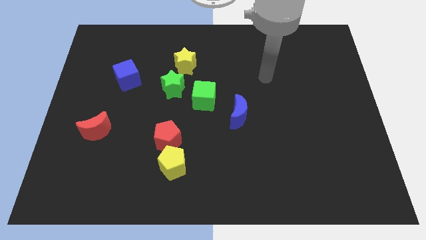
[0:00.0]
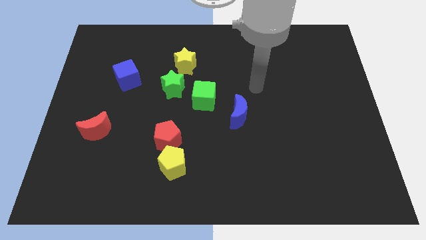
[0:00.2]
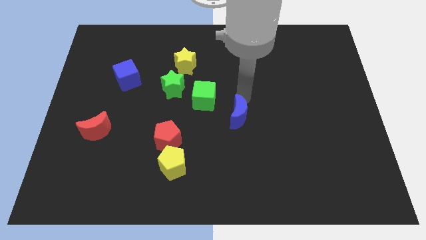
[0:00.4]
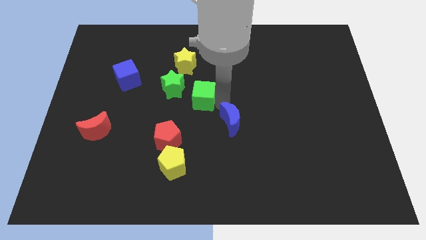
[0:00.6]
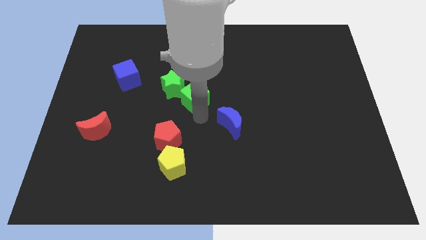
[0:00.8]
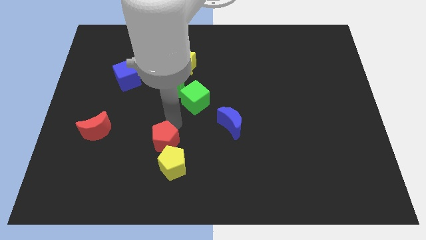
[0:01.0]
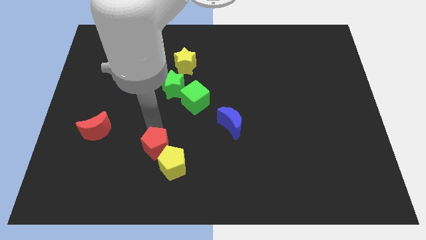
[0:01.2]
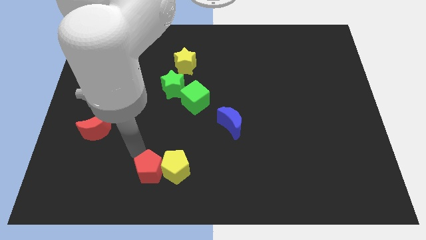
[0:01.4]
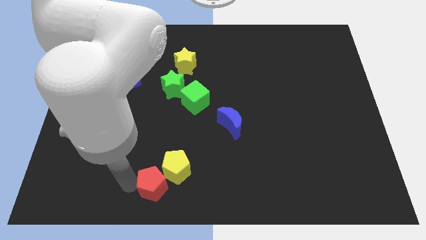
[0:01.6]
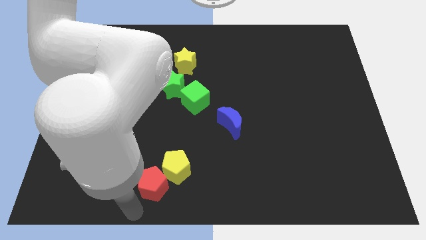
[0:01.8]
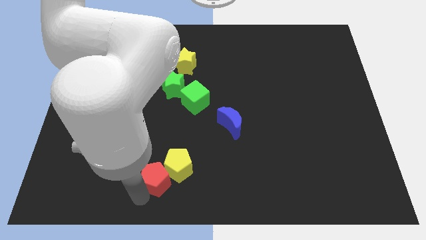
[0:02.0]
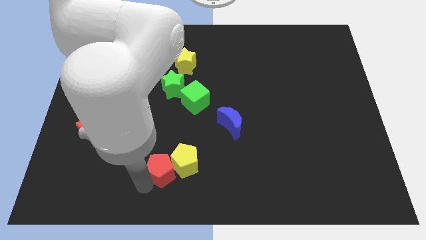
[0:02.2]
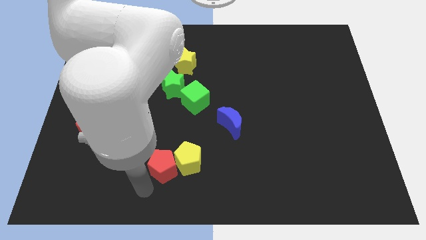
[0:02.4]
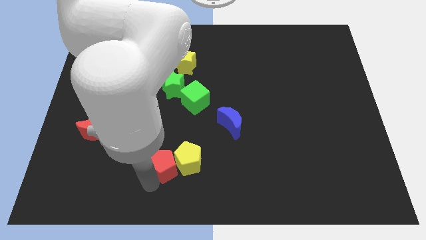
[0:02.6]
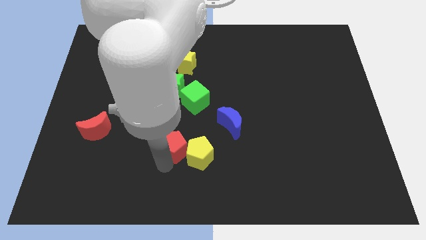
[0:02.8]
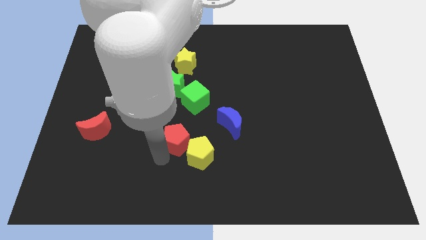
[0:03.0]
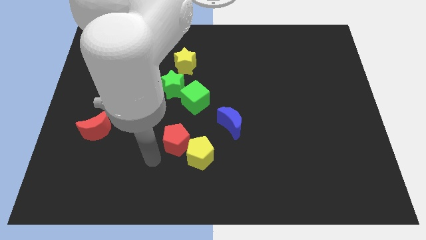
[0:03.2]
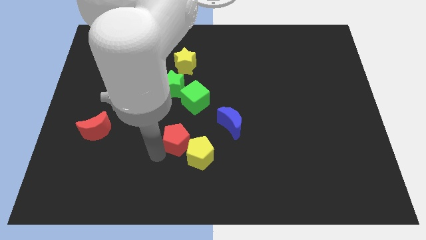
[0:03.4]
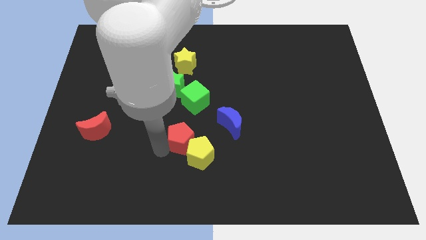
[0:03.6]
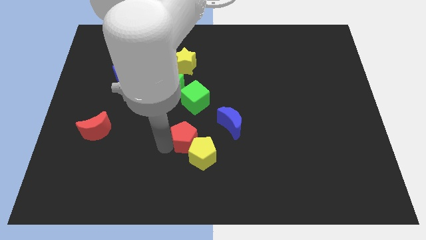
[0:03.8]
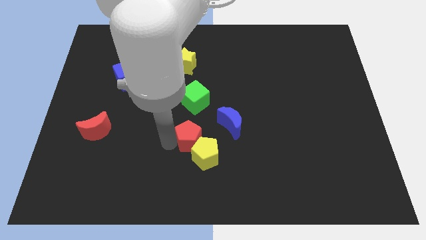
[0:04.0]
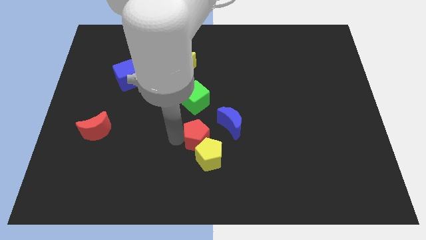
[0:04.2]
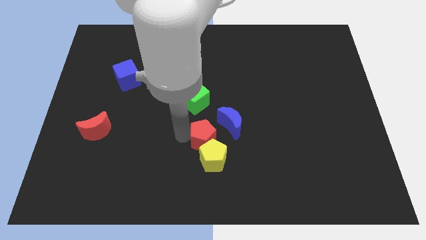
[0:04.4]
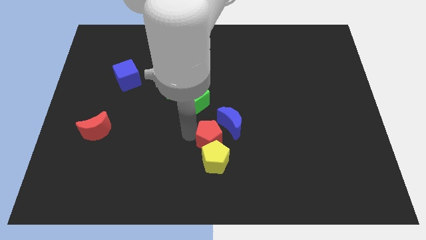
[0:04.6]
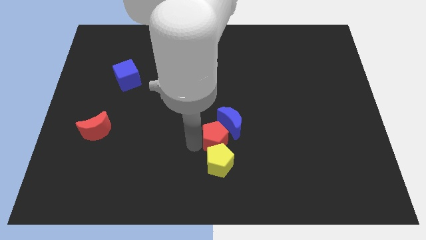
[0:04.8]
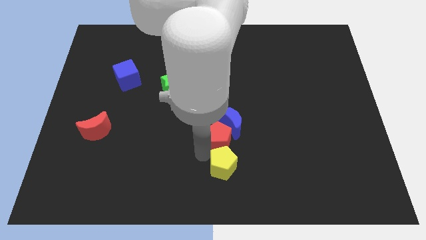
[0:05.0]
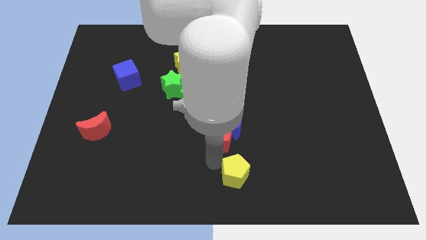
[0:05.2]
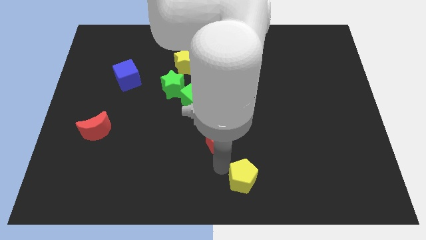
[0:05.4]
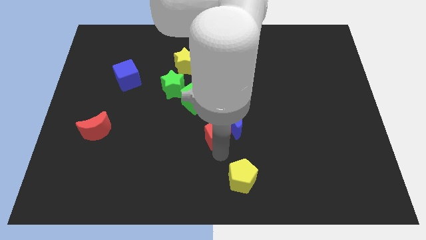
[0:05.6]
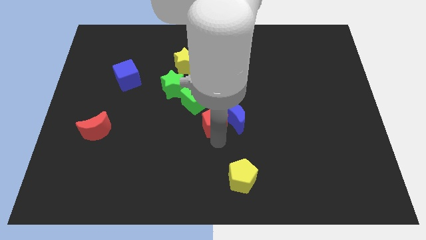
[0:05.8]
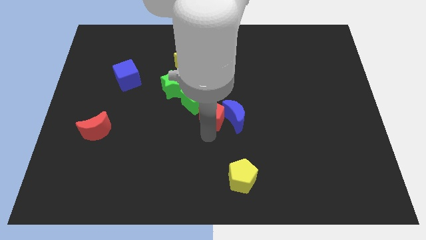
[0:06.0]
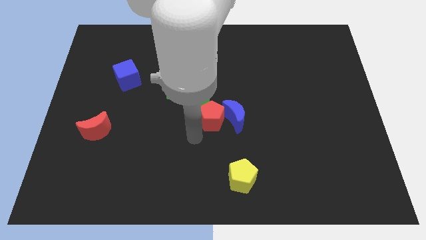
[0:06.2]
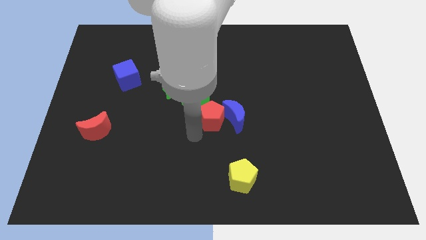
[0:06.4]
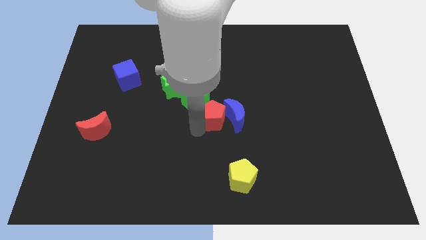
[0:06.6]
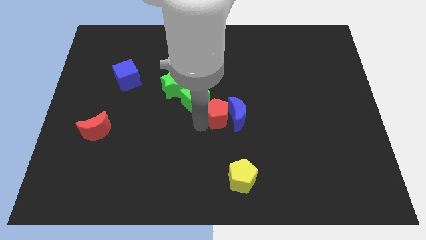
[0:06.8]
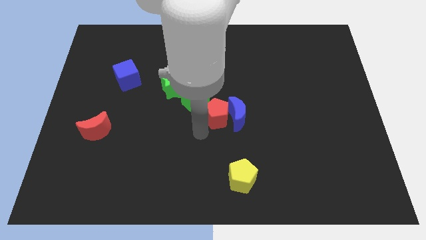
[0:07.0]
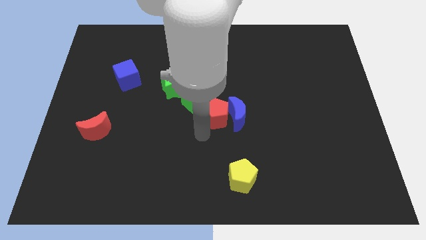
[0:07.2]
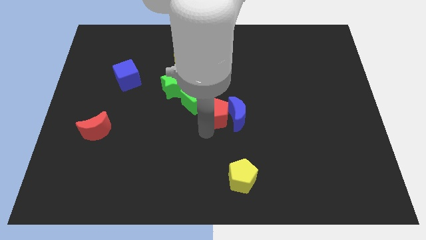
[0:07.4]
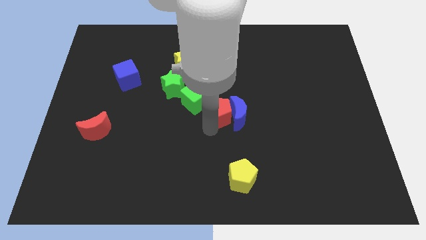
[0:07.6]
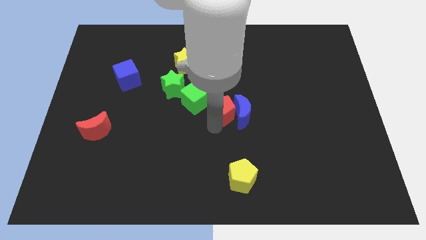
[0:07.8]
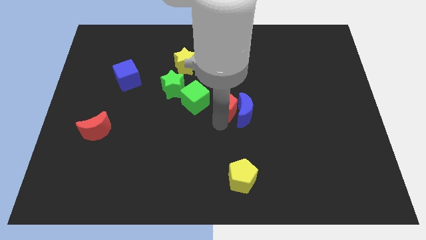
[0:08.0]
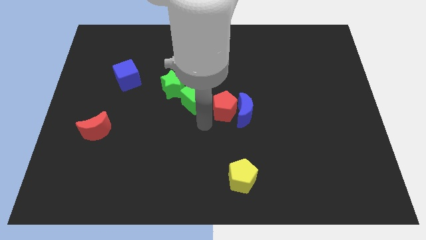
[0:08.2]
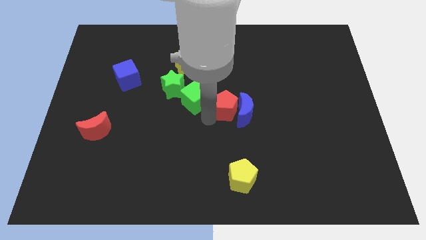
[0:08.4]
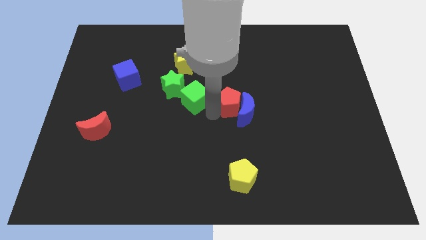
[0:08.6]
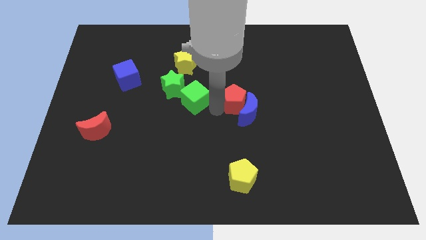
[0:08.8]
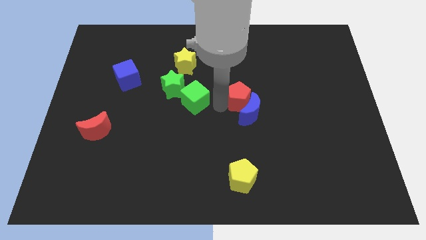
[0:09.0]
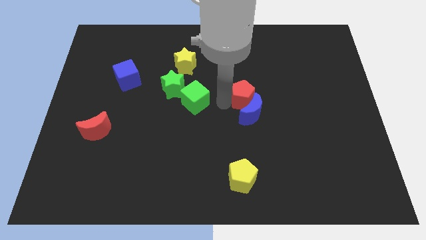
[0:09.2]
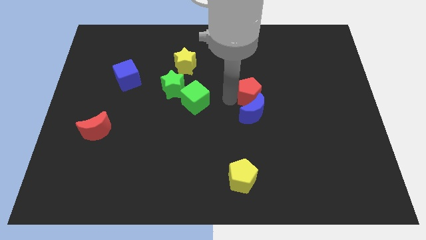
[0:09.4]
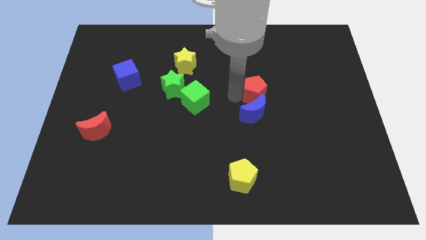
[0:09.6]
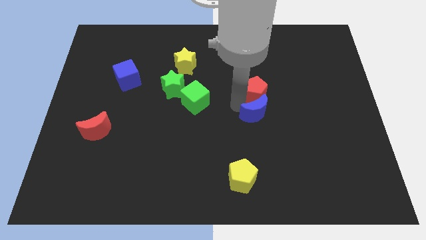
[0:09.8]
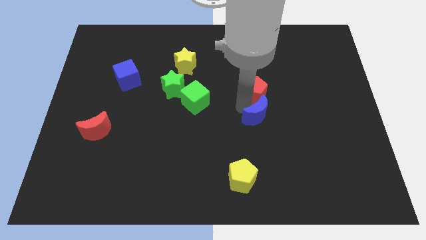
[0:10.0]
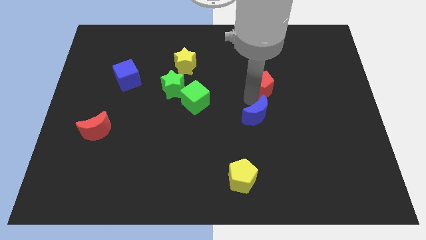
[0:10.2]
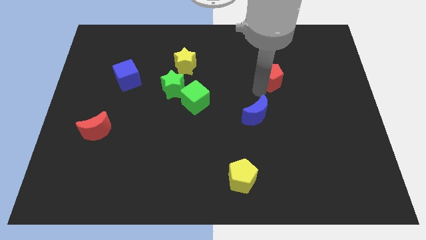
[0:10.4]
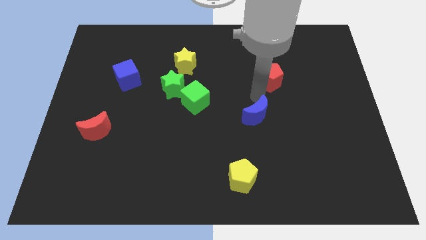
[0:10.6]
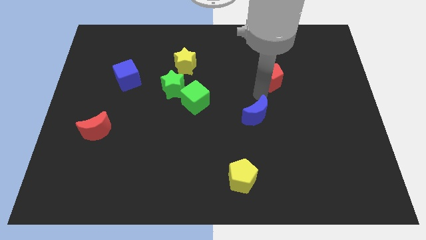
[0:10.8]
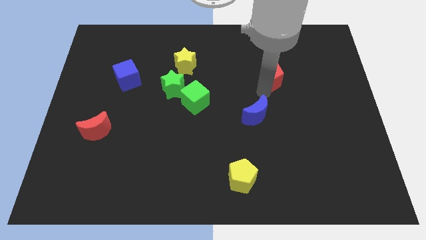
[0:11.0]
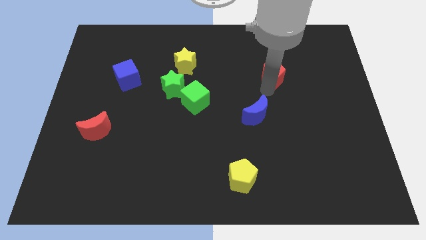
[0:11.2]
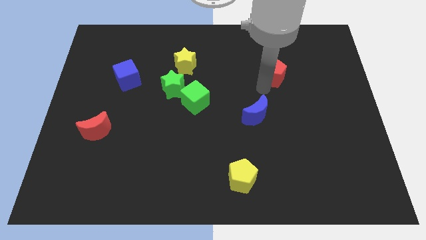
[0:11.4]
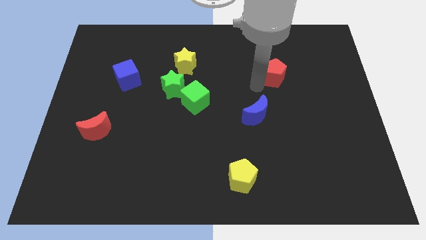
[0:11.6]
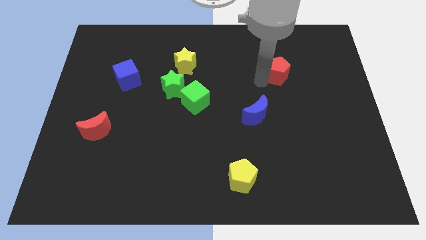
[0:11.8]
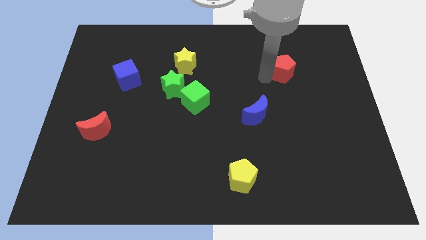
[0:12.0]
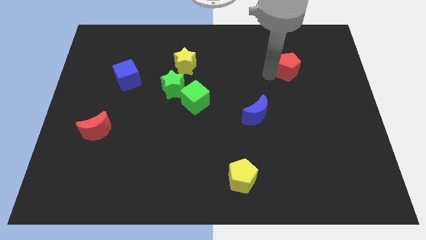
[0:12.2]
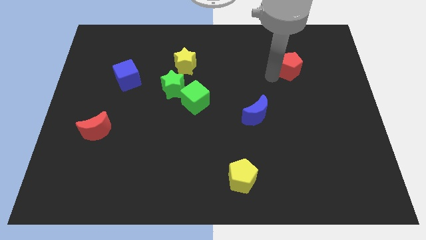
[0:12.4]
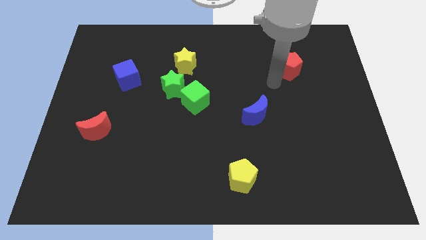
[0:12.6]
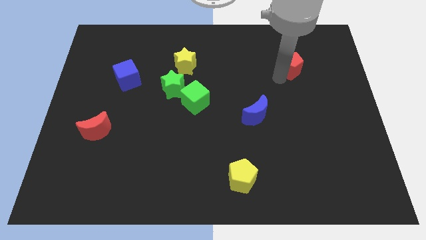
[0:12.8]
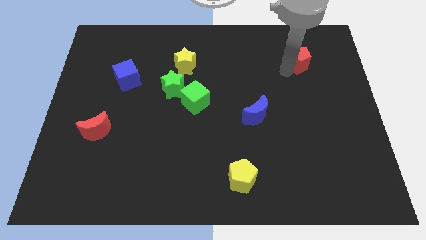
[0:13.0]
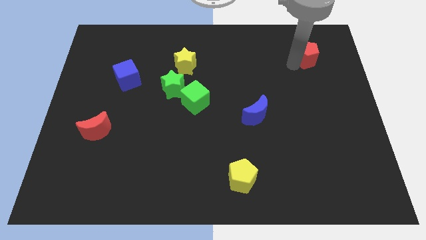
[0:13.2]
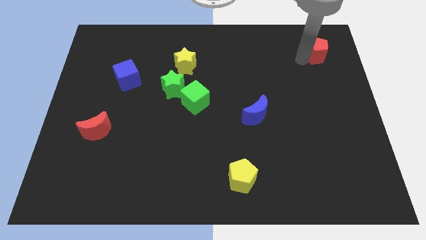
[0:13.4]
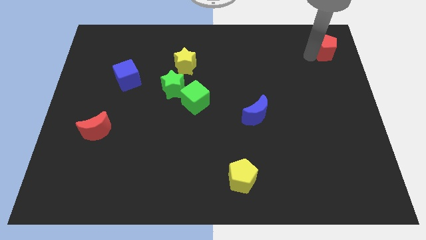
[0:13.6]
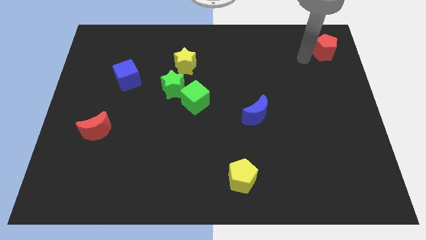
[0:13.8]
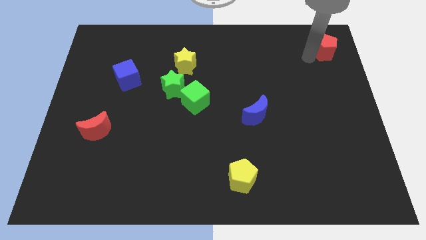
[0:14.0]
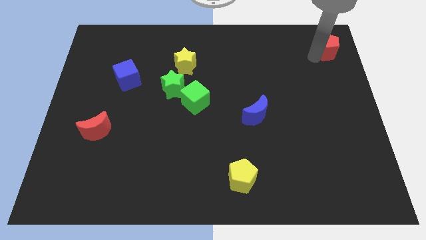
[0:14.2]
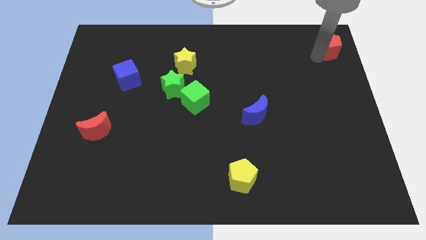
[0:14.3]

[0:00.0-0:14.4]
slide the red pentagon to the upper right corner
